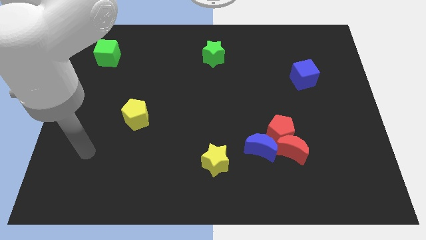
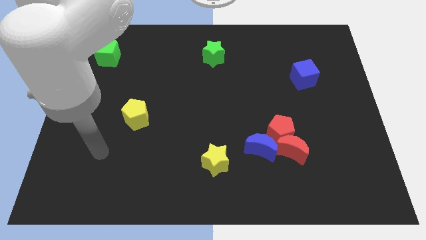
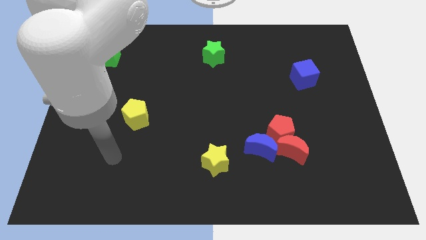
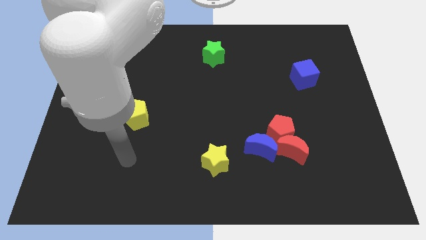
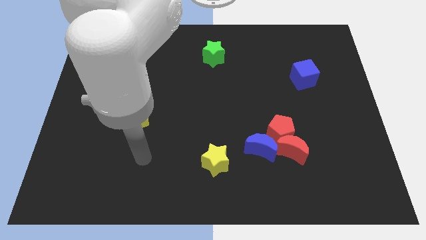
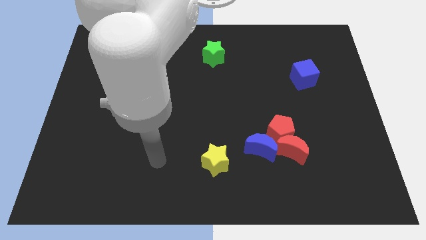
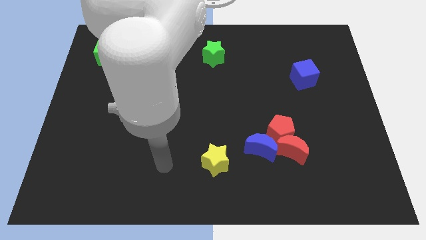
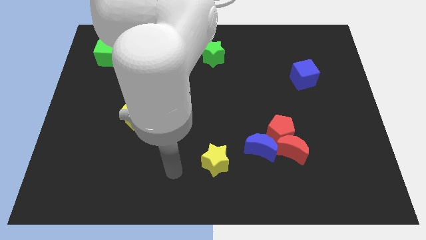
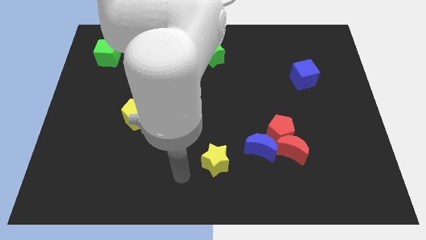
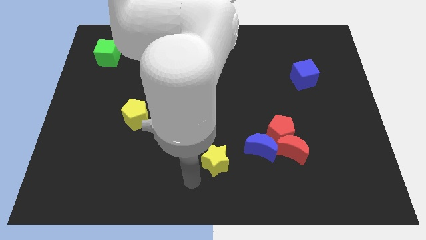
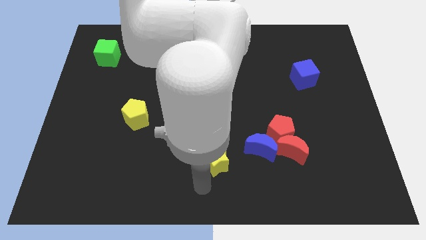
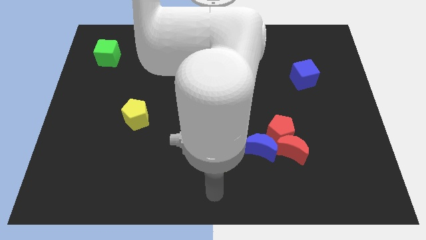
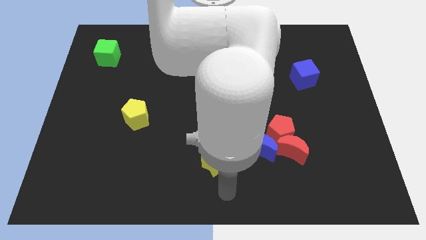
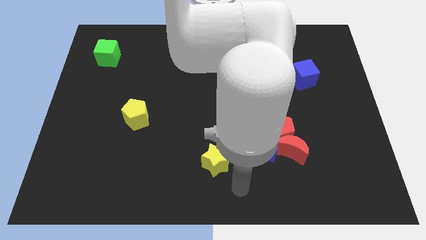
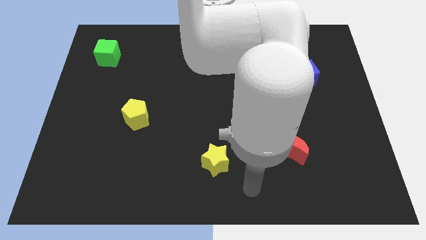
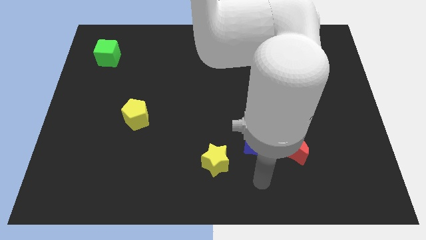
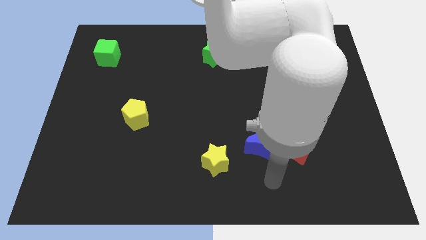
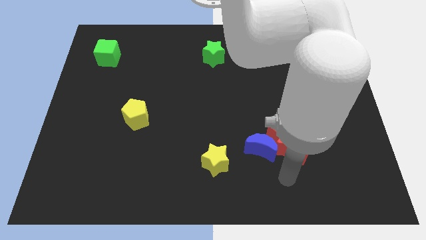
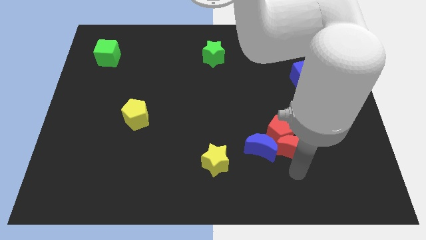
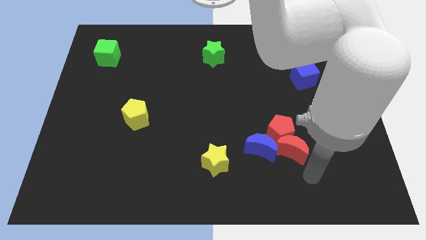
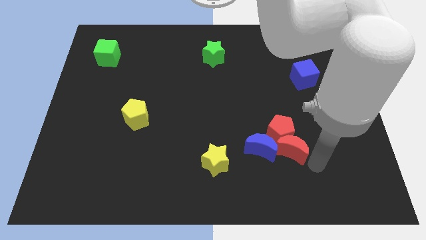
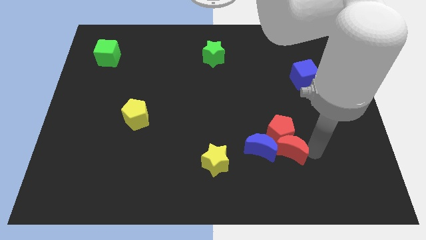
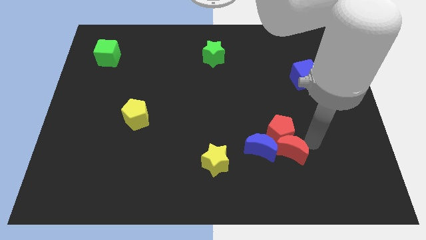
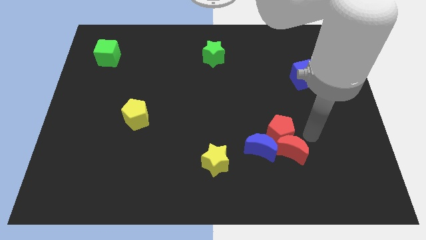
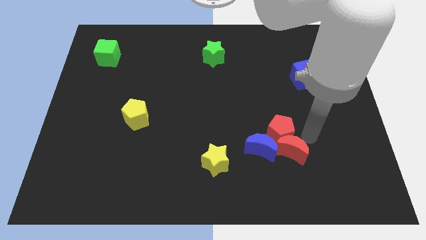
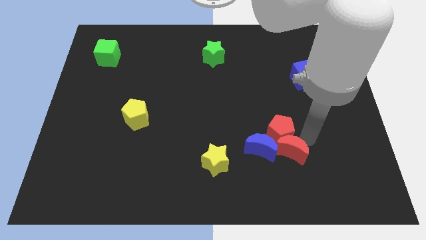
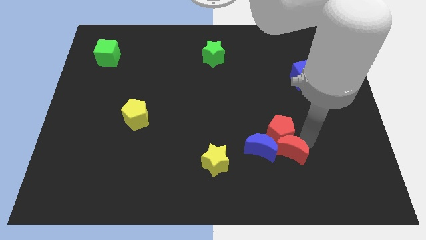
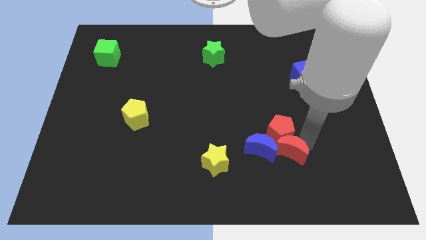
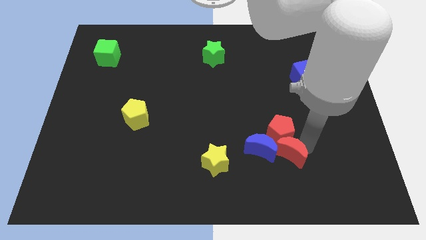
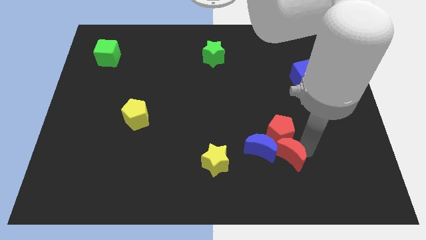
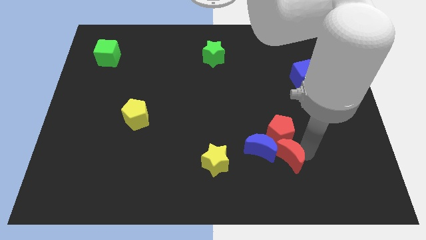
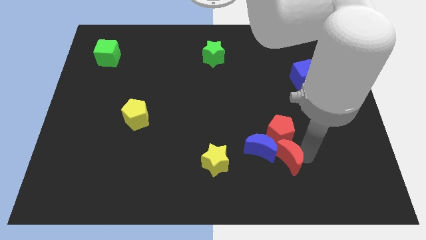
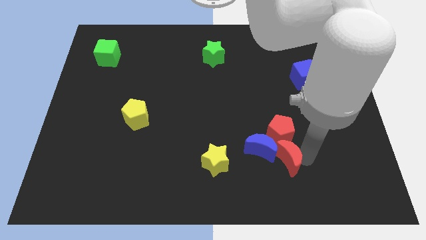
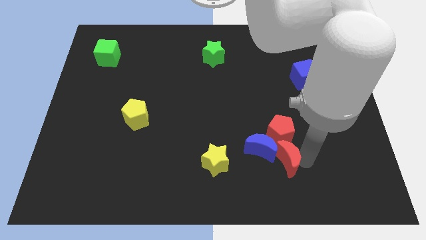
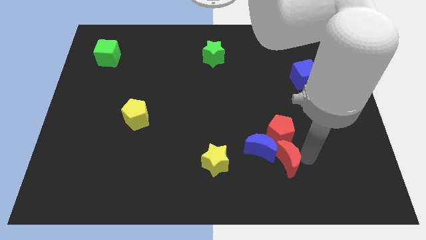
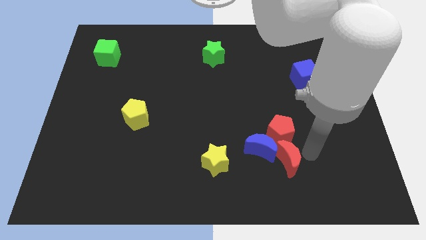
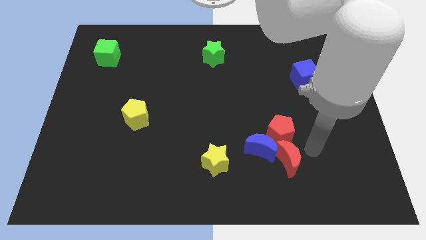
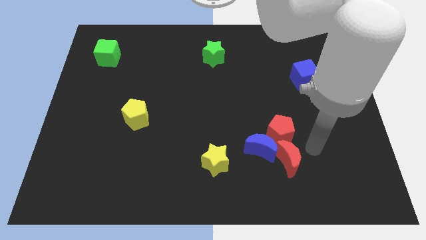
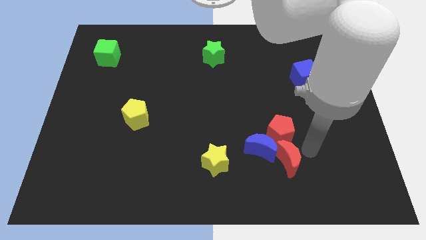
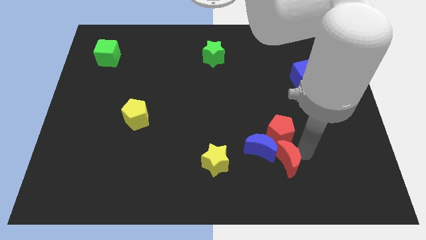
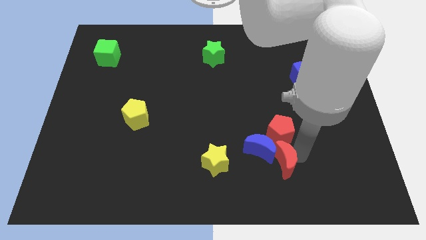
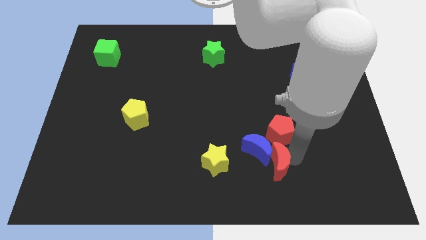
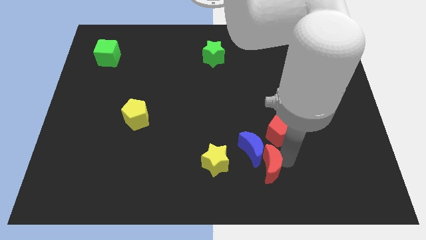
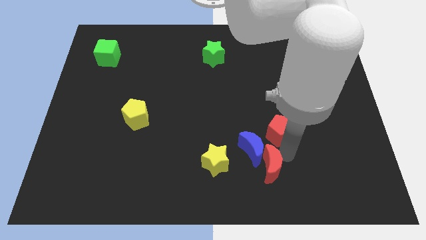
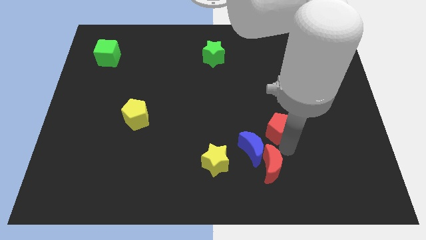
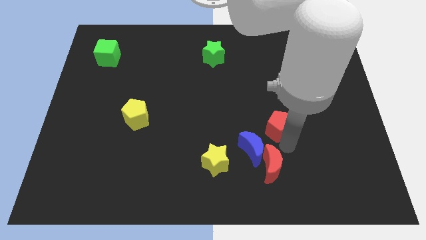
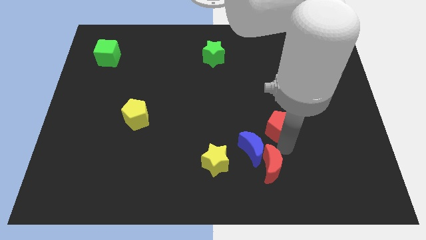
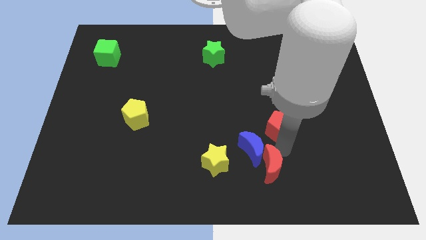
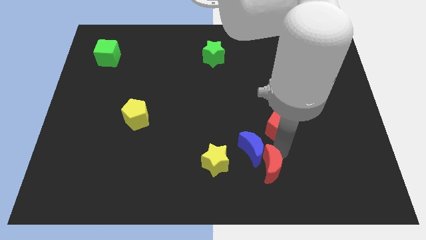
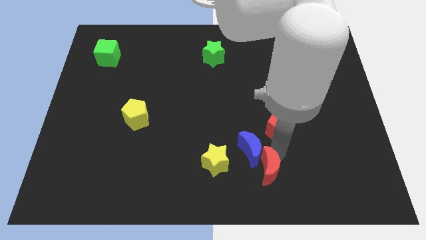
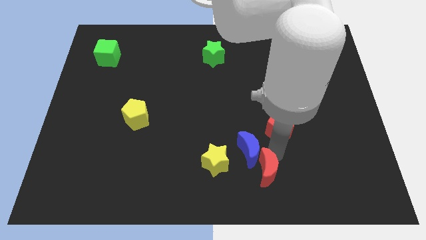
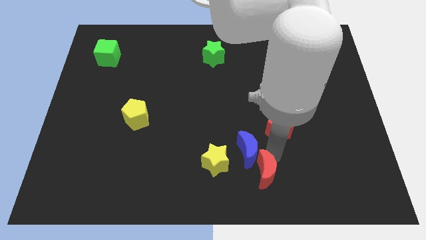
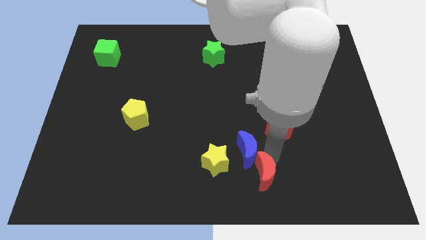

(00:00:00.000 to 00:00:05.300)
move the red moon to the bottom

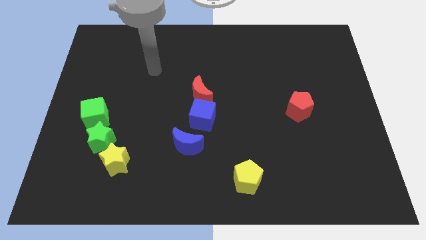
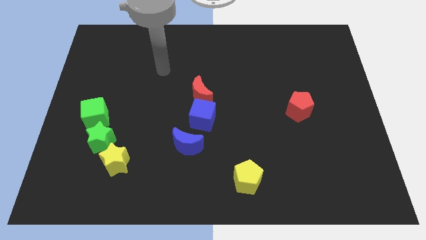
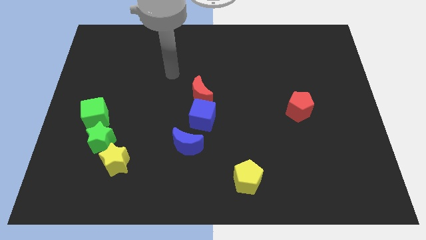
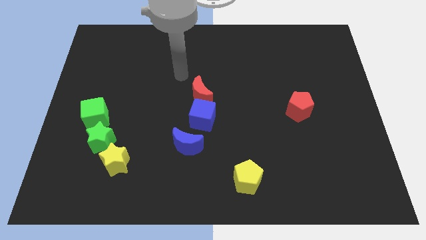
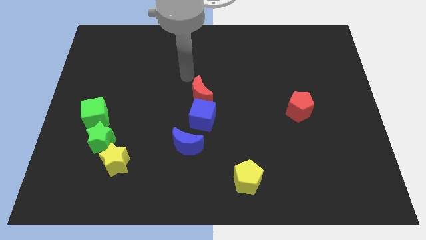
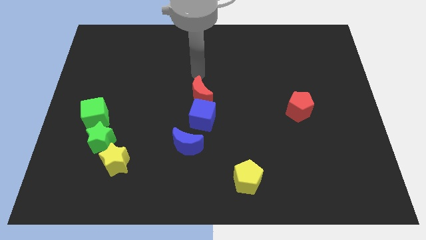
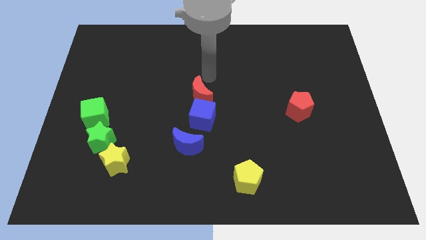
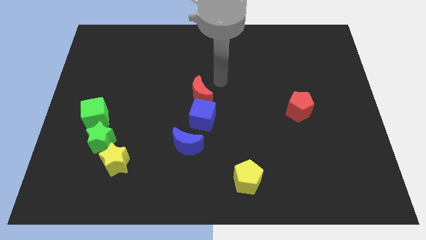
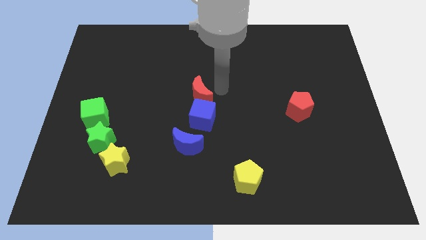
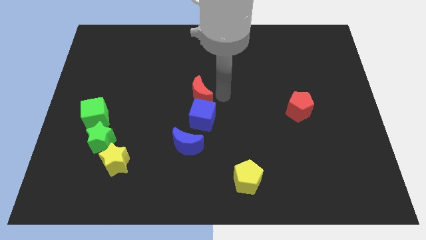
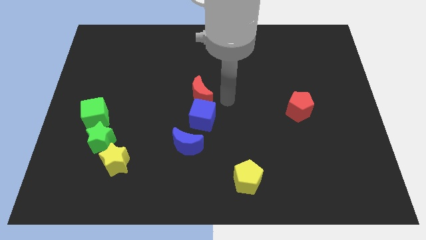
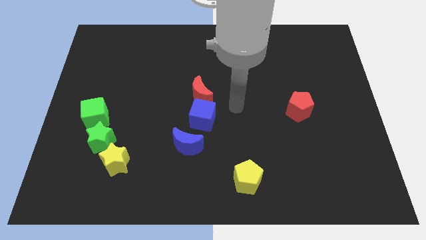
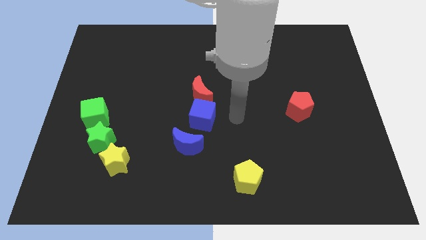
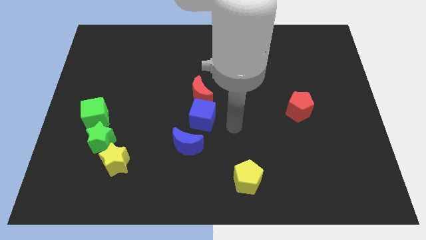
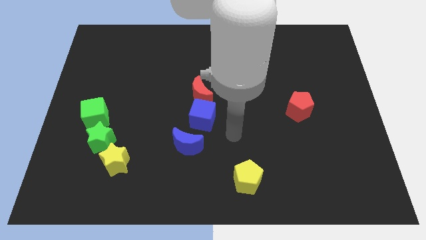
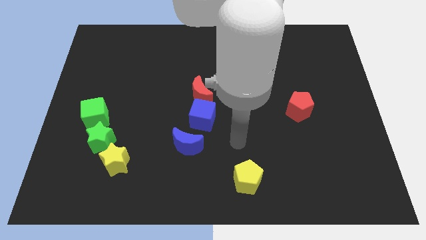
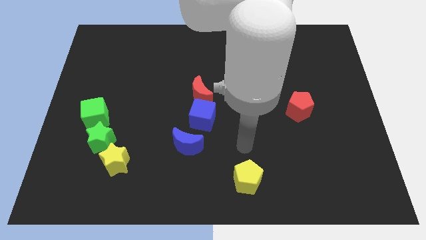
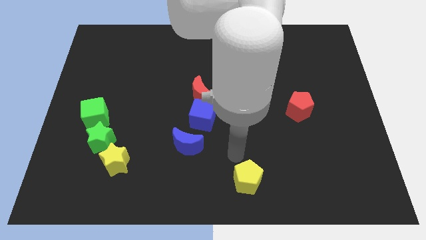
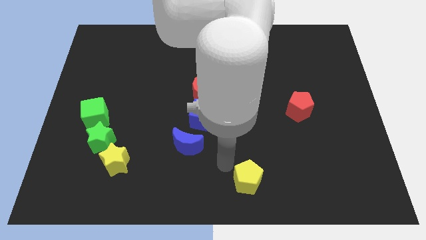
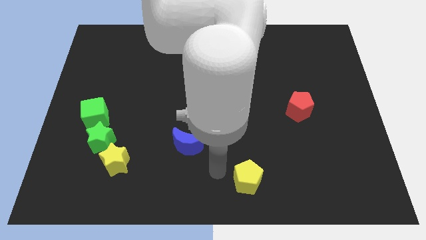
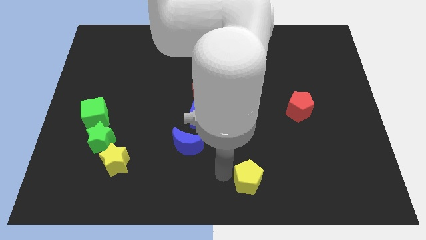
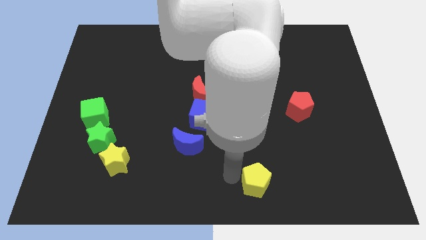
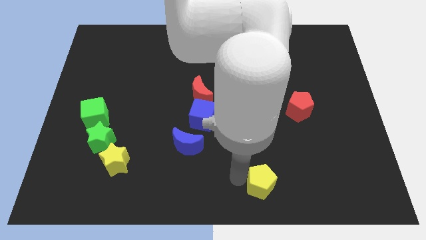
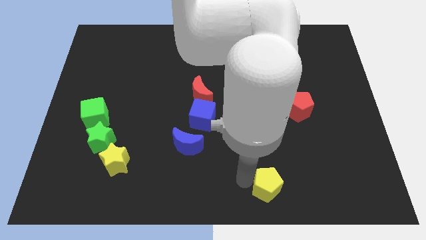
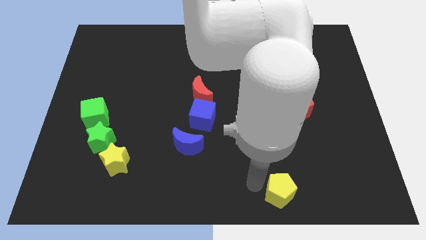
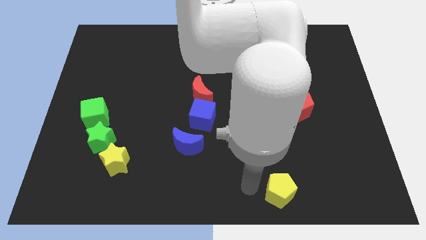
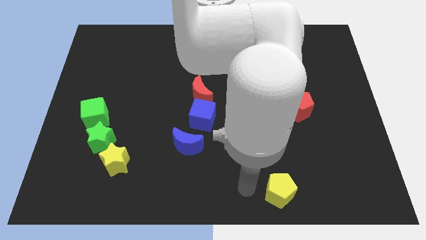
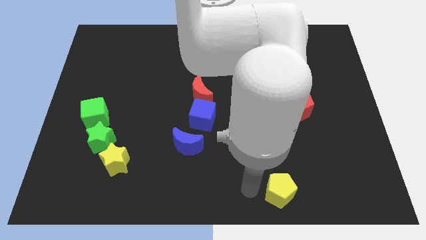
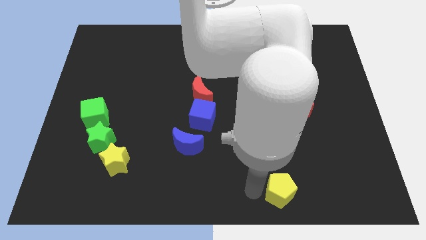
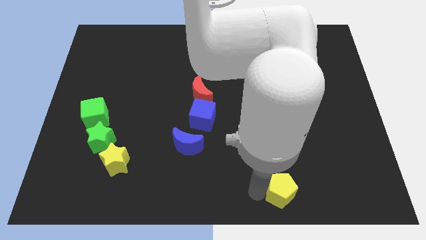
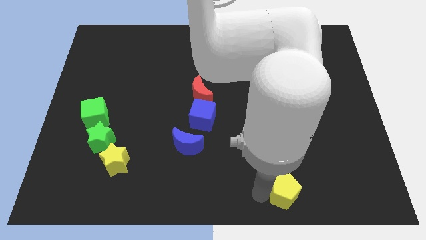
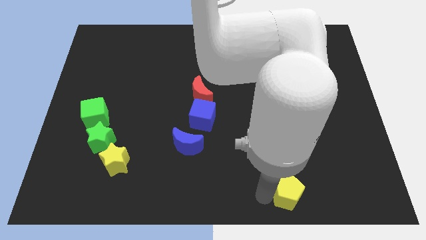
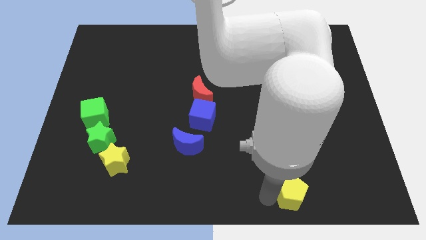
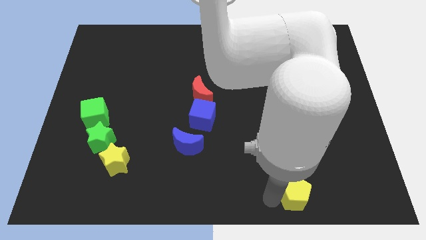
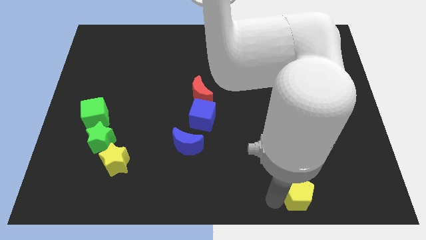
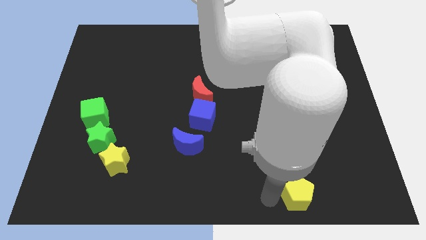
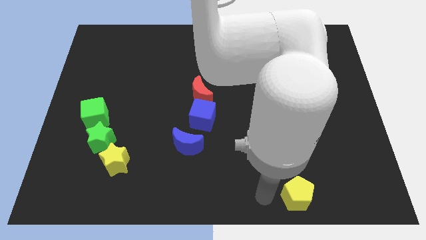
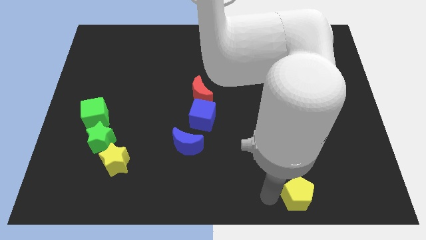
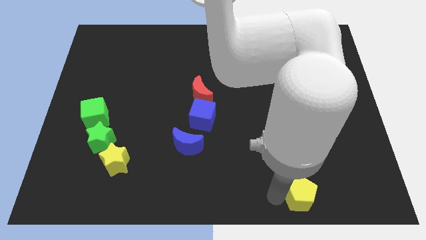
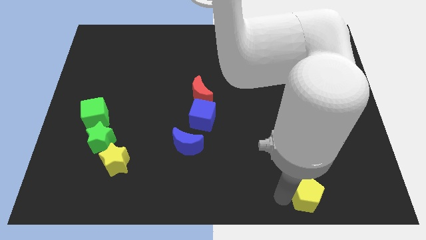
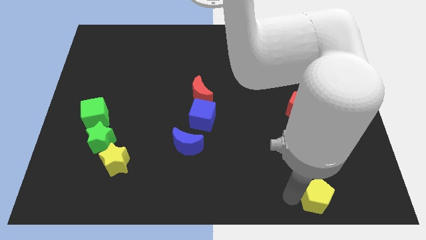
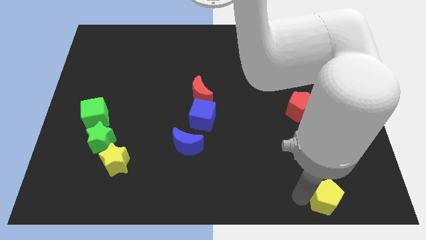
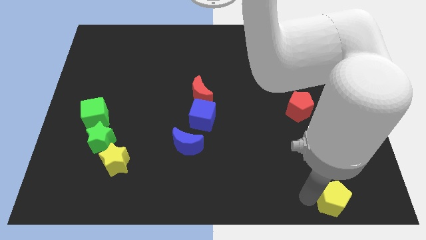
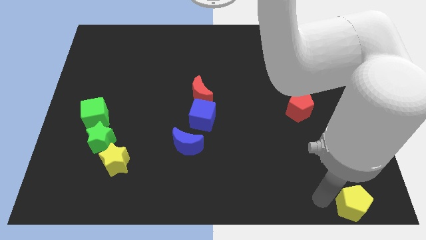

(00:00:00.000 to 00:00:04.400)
put the yellow pentagon to the lower right corner
